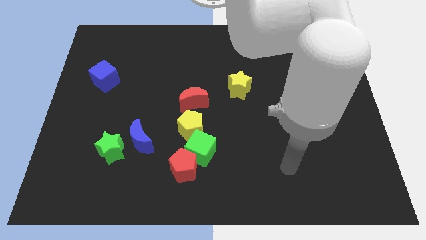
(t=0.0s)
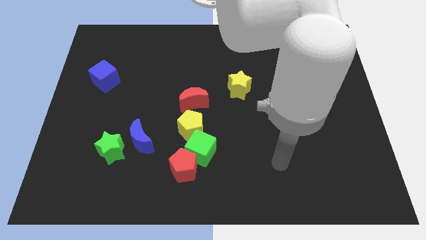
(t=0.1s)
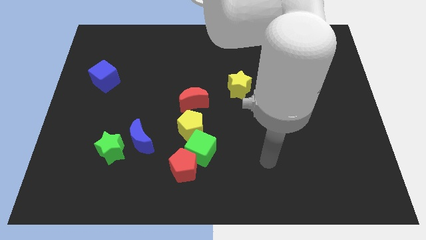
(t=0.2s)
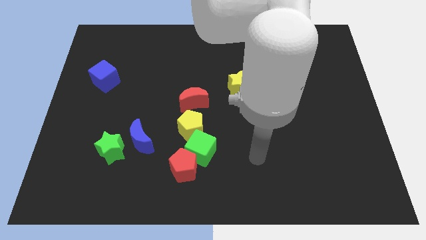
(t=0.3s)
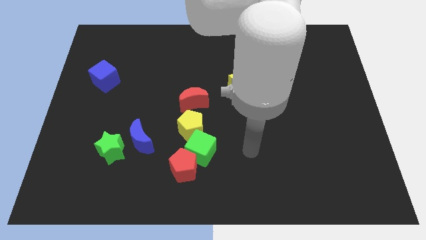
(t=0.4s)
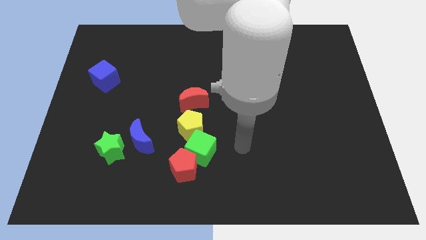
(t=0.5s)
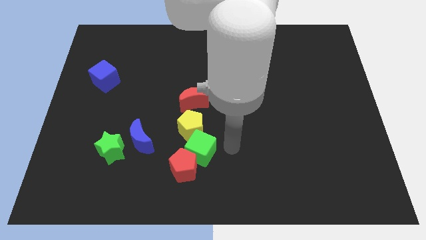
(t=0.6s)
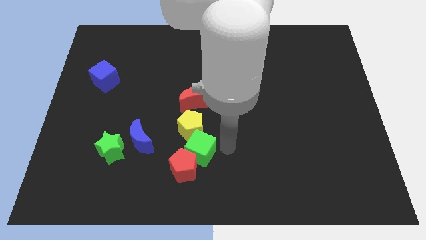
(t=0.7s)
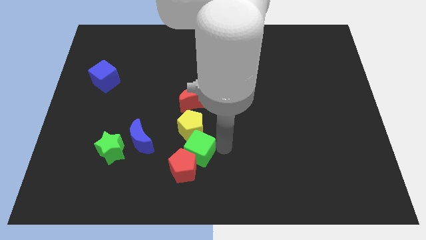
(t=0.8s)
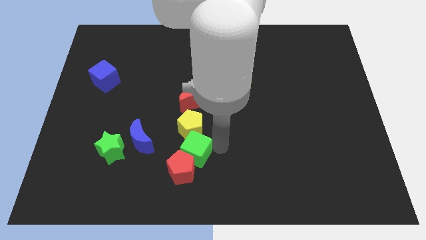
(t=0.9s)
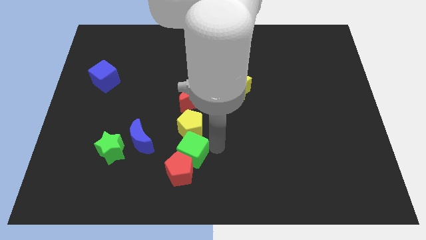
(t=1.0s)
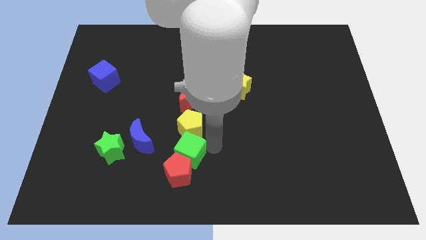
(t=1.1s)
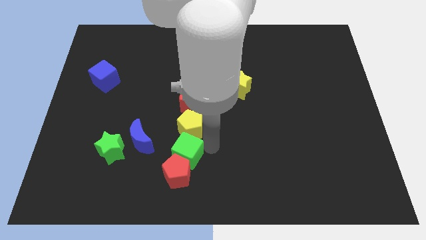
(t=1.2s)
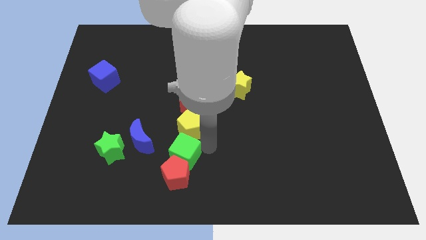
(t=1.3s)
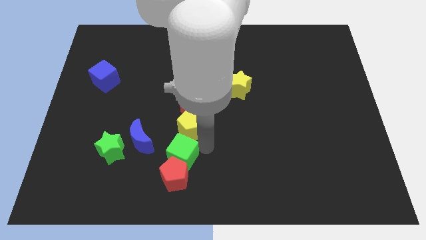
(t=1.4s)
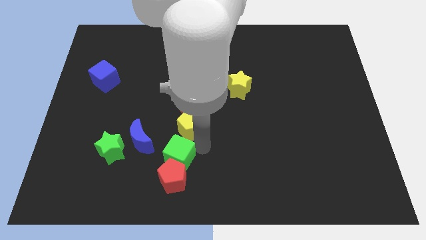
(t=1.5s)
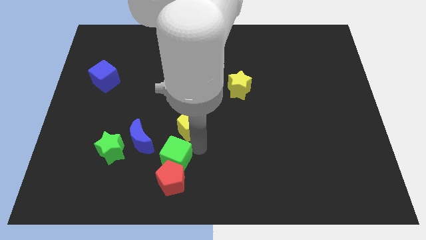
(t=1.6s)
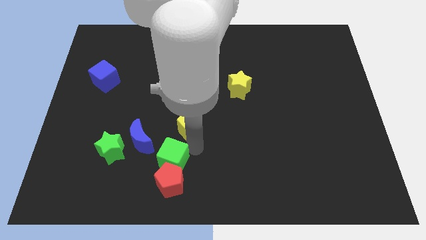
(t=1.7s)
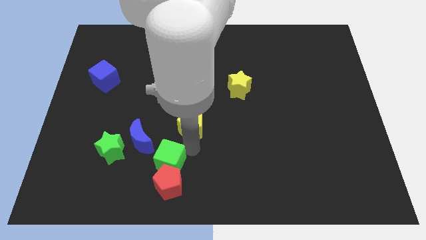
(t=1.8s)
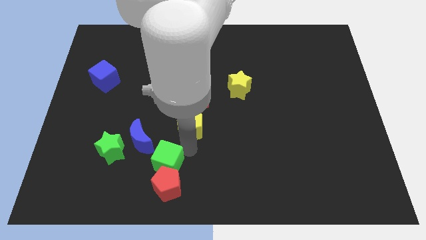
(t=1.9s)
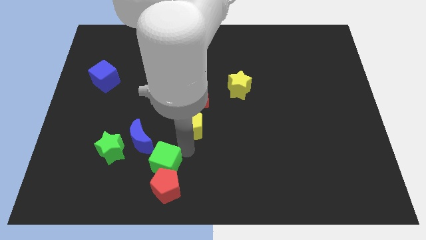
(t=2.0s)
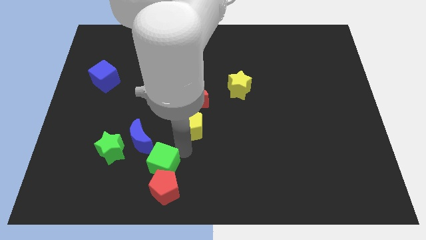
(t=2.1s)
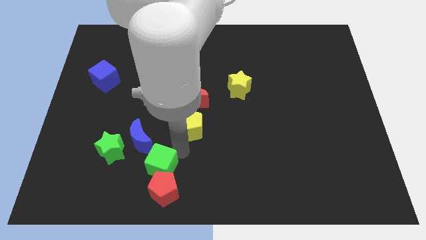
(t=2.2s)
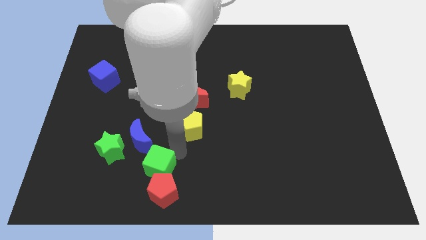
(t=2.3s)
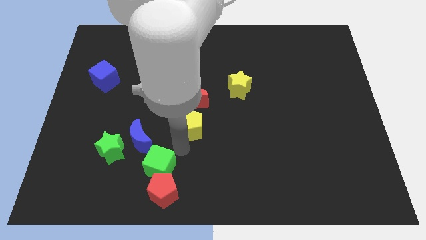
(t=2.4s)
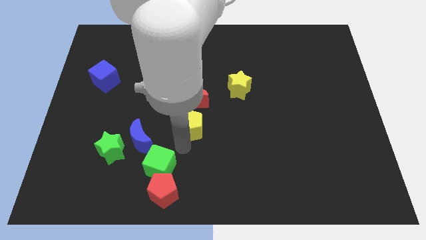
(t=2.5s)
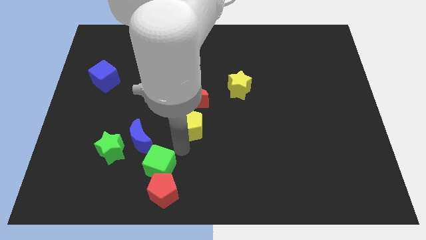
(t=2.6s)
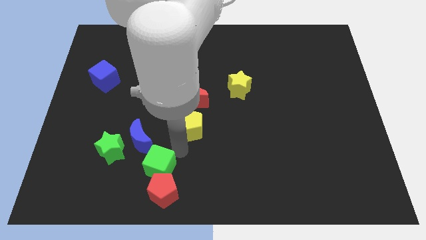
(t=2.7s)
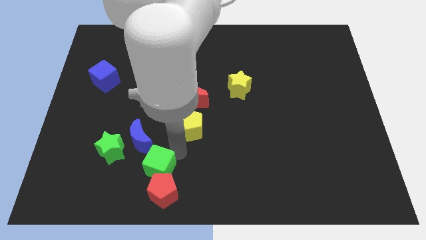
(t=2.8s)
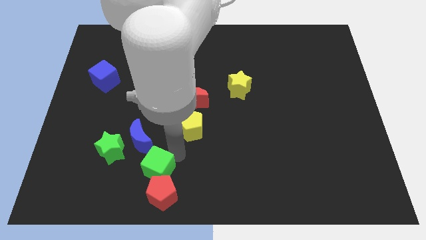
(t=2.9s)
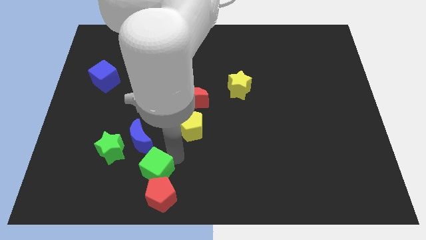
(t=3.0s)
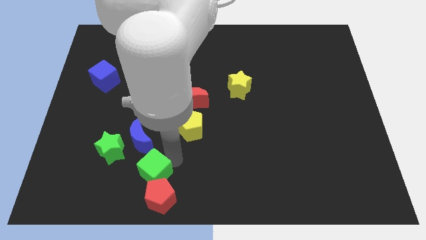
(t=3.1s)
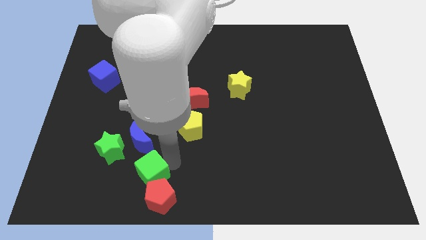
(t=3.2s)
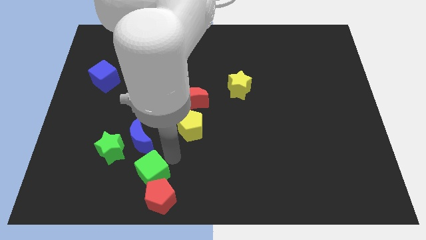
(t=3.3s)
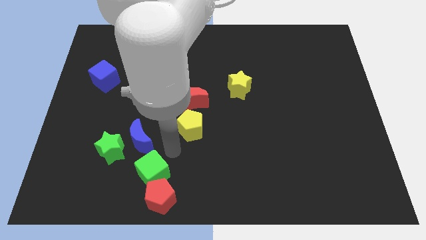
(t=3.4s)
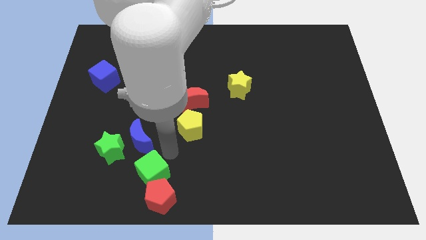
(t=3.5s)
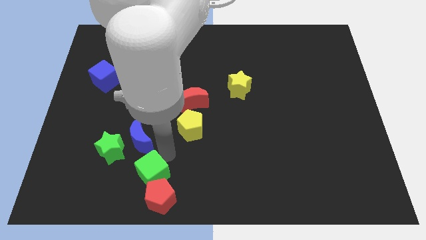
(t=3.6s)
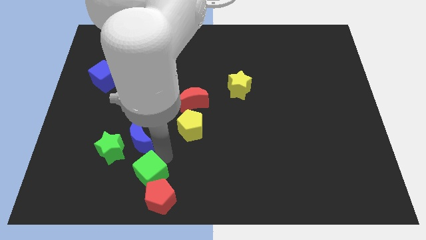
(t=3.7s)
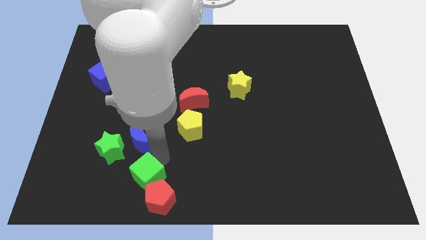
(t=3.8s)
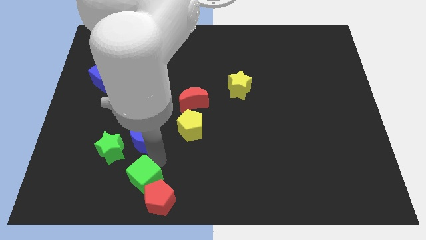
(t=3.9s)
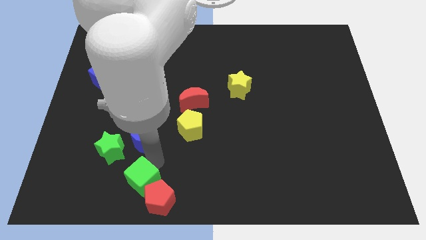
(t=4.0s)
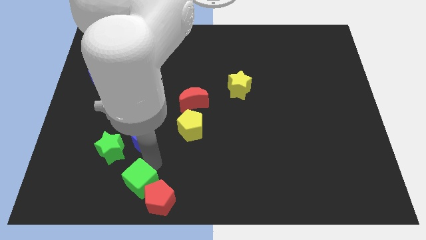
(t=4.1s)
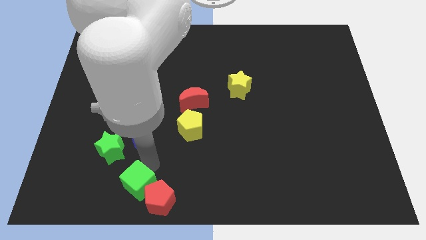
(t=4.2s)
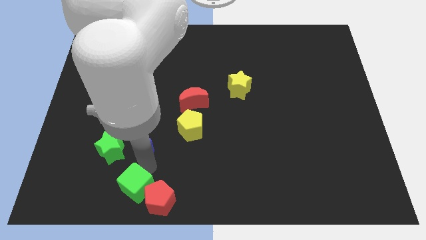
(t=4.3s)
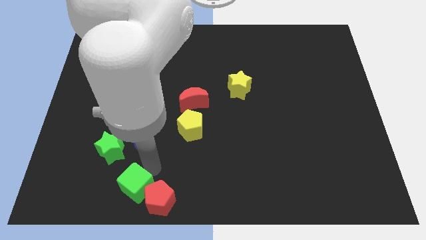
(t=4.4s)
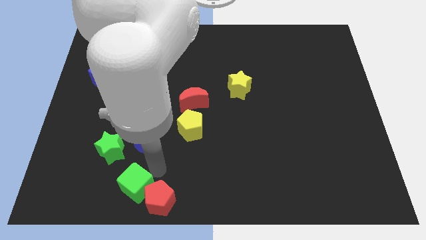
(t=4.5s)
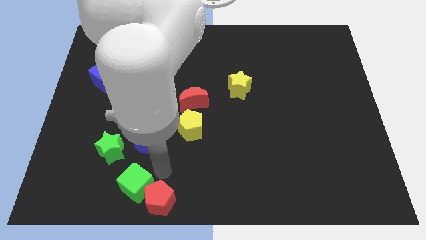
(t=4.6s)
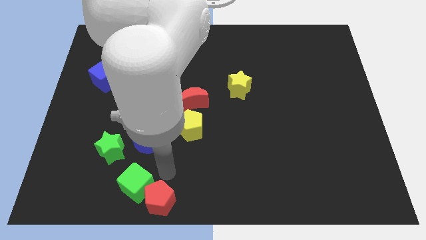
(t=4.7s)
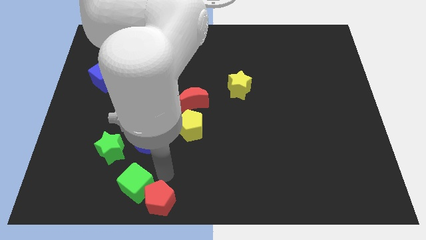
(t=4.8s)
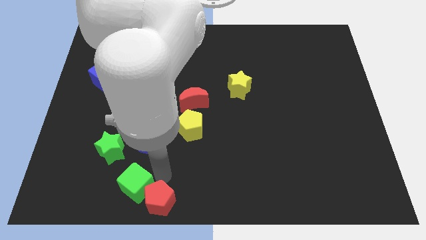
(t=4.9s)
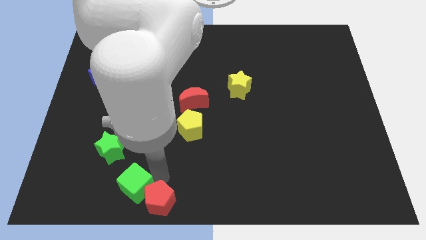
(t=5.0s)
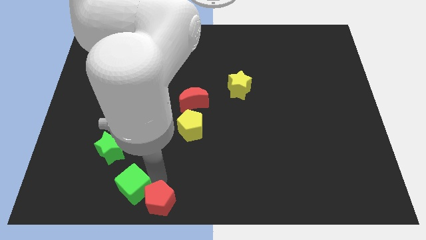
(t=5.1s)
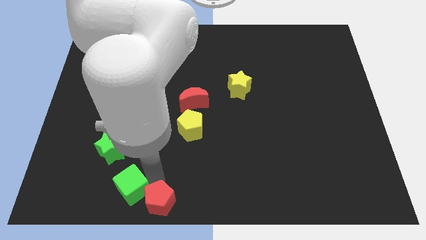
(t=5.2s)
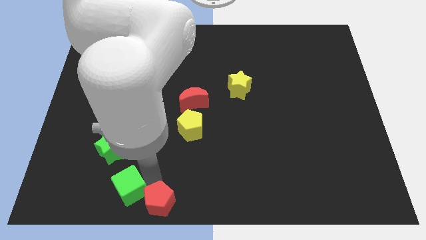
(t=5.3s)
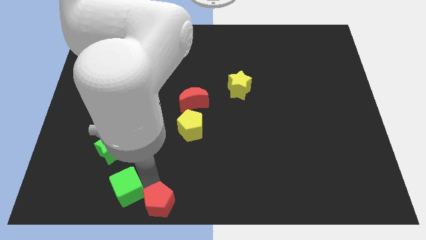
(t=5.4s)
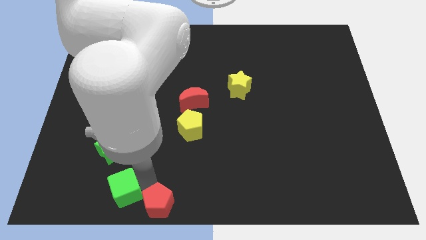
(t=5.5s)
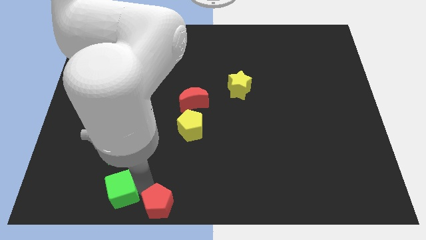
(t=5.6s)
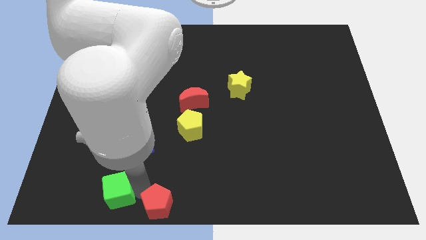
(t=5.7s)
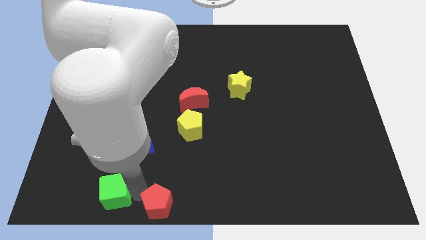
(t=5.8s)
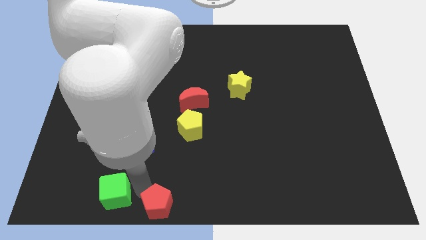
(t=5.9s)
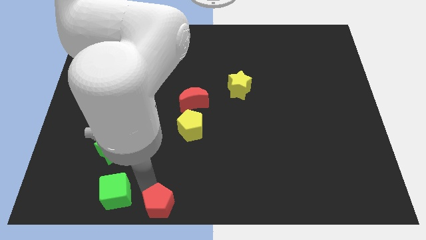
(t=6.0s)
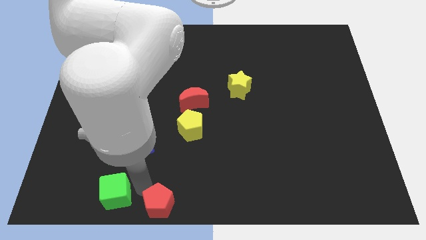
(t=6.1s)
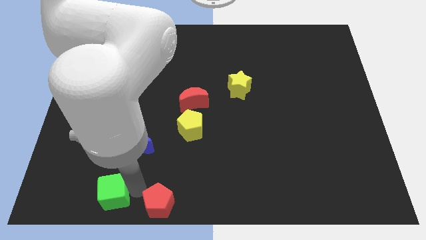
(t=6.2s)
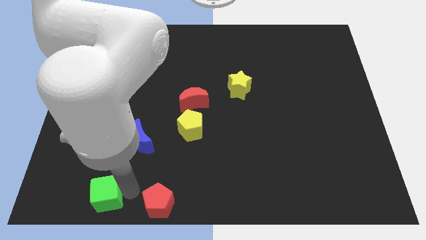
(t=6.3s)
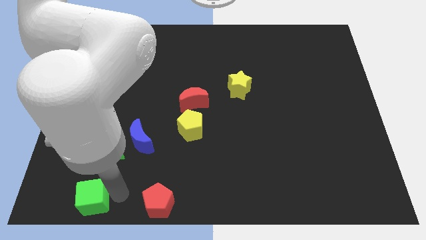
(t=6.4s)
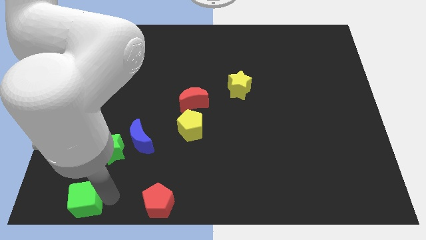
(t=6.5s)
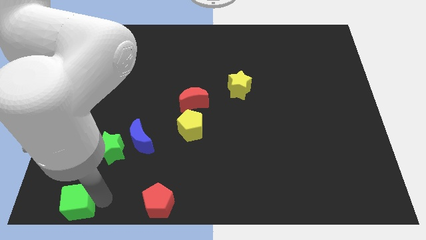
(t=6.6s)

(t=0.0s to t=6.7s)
slide the green cube to the bottom left corner
